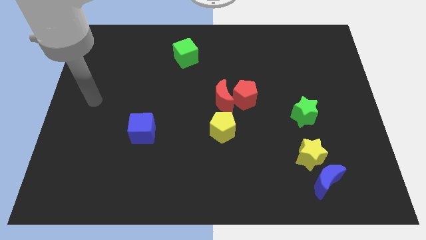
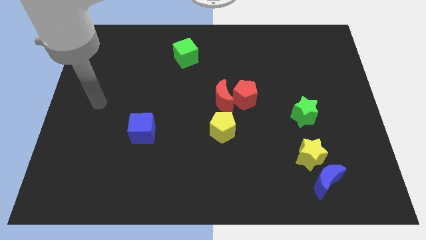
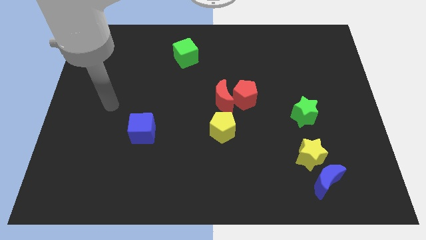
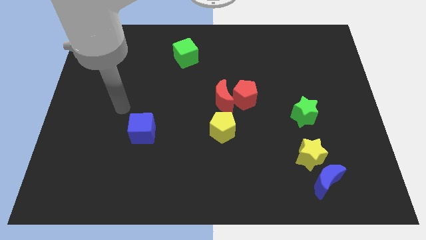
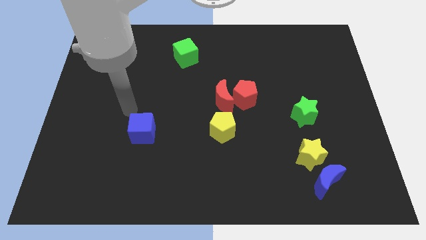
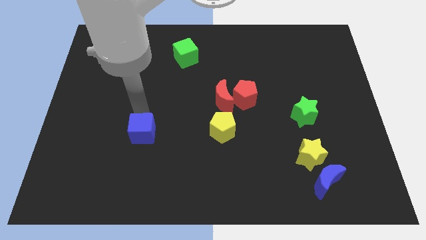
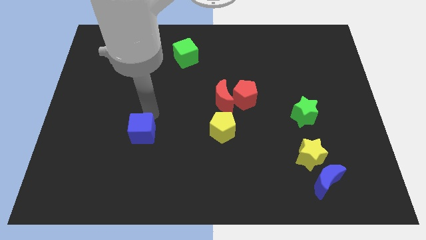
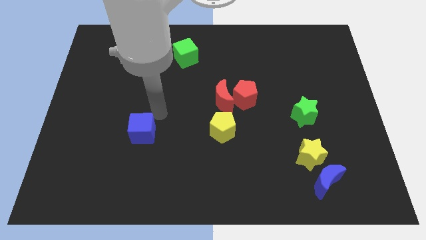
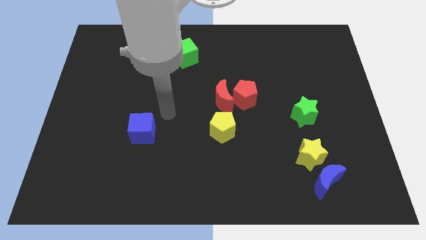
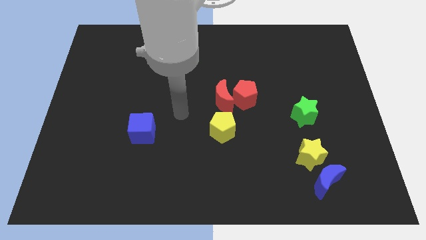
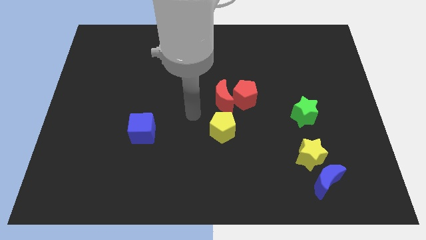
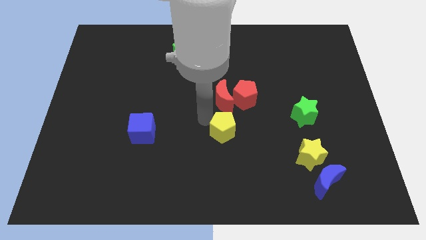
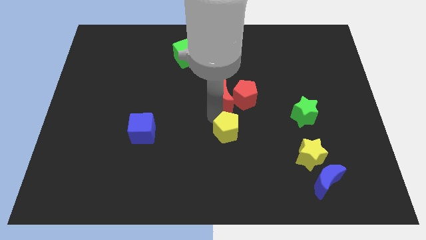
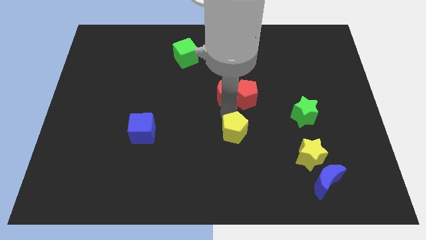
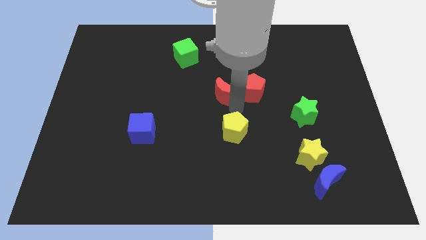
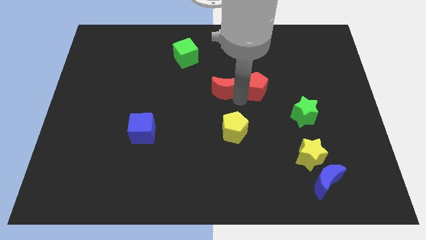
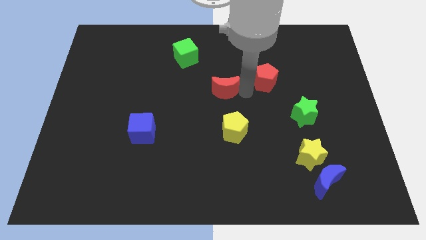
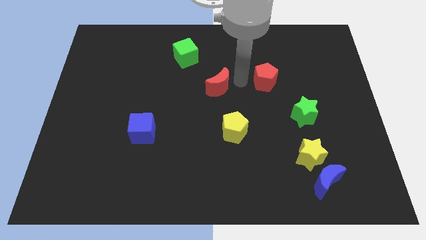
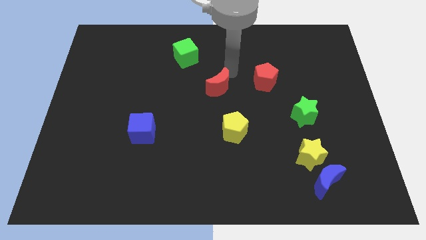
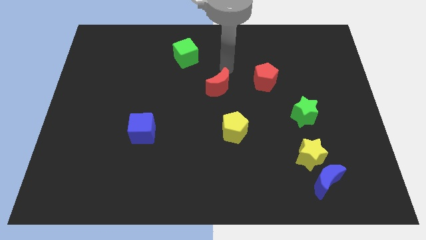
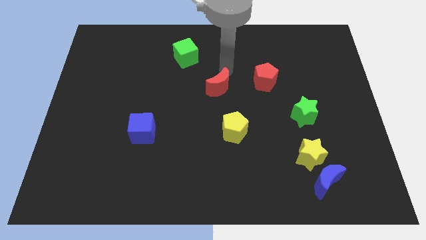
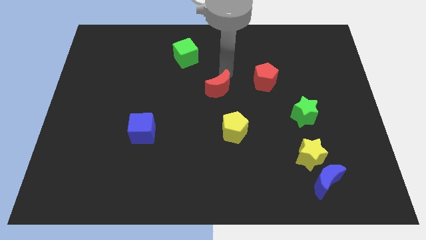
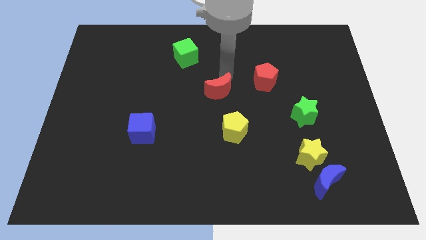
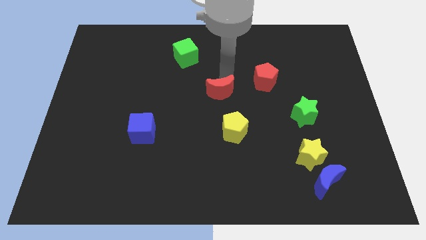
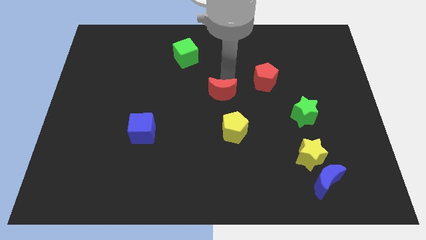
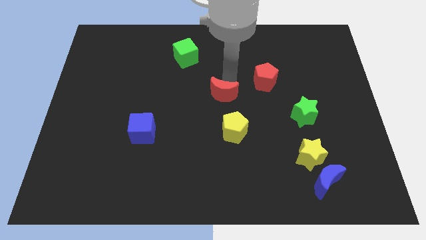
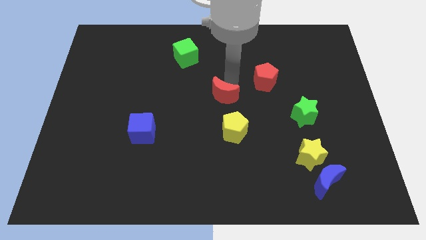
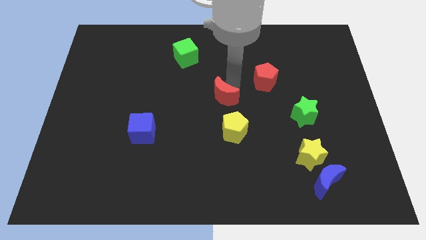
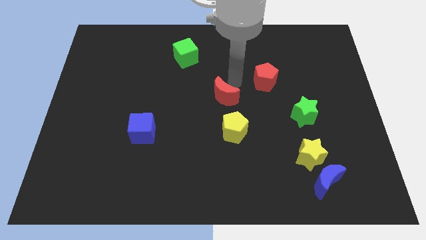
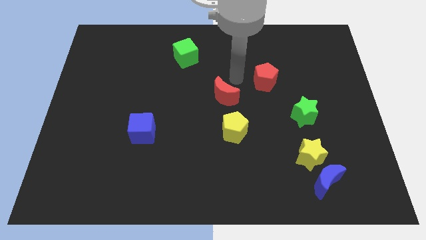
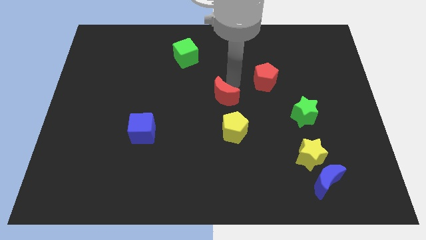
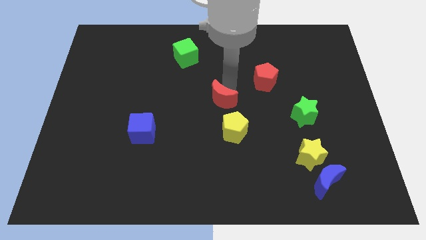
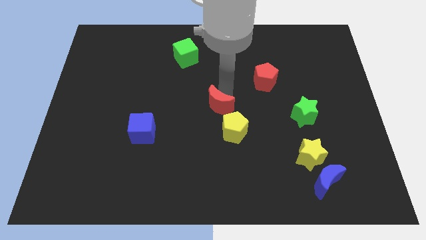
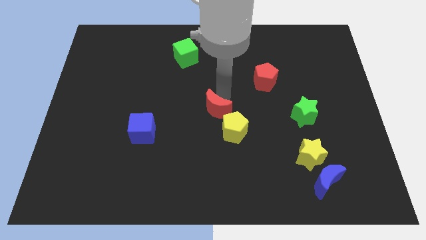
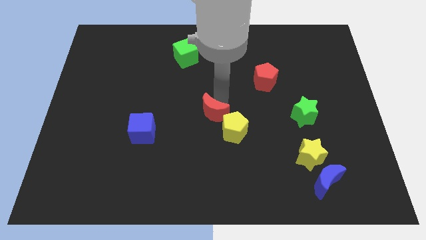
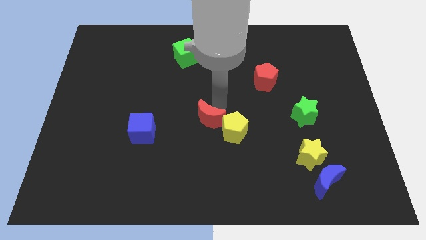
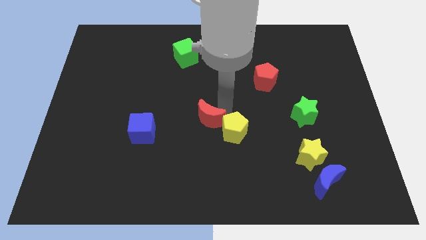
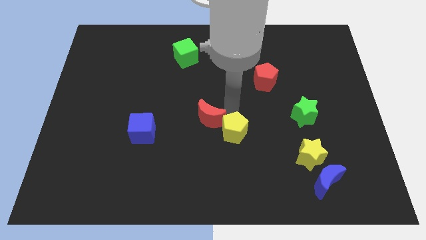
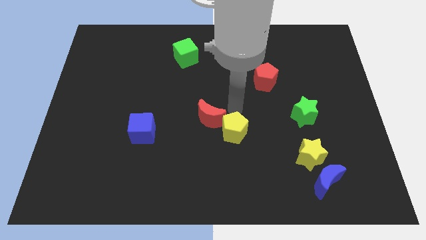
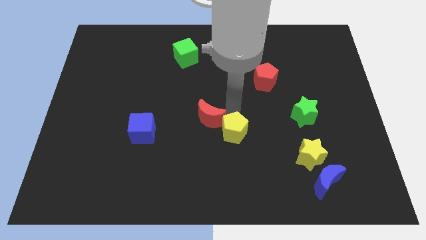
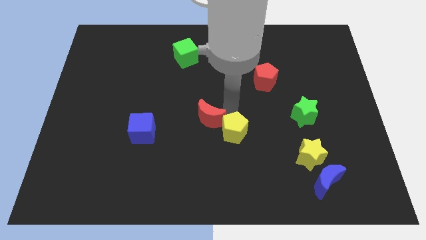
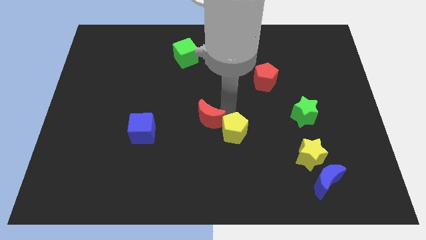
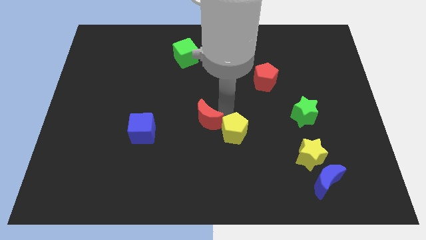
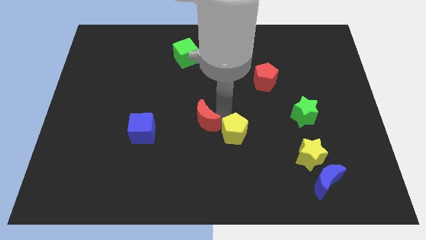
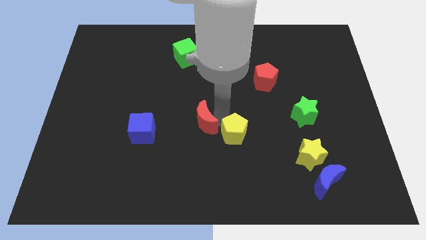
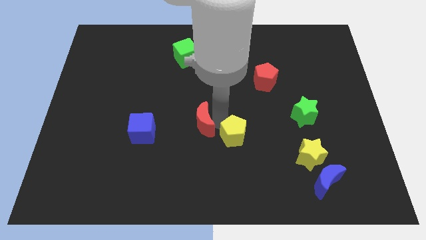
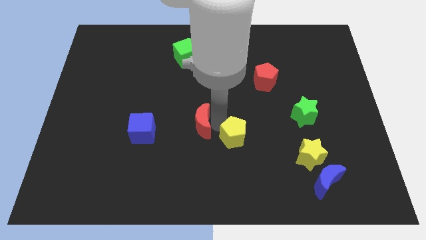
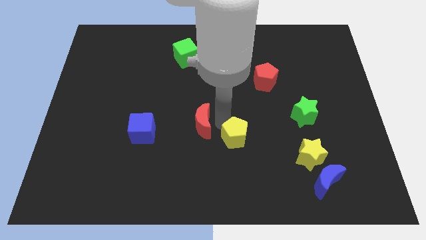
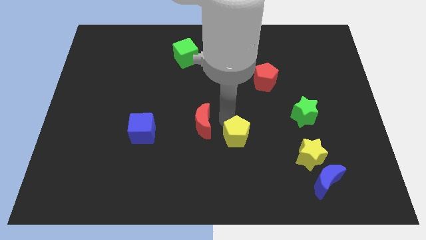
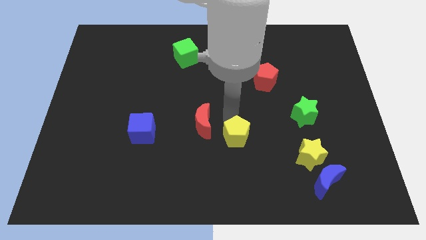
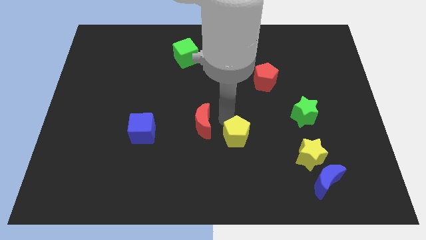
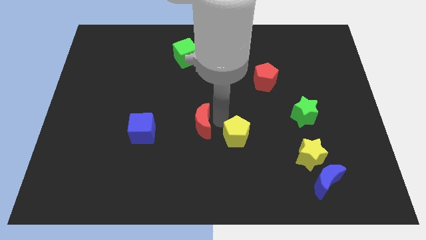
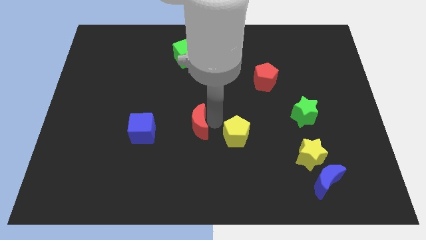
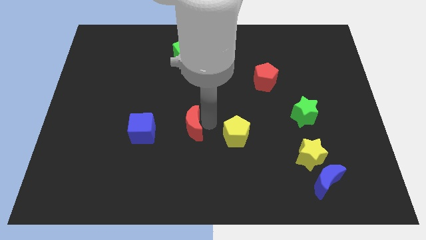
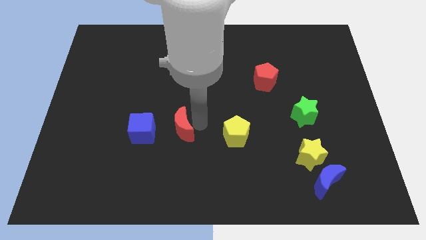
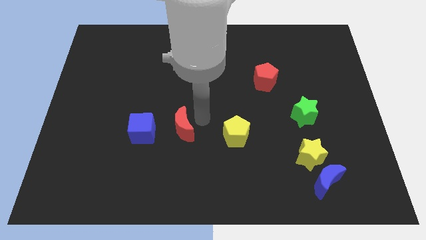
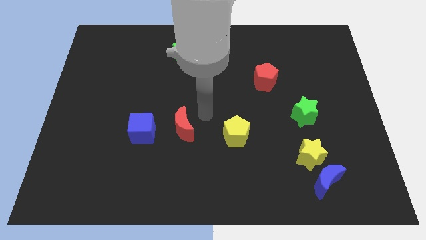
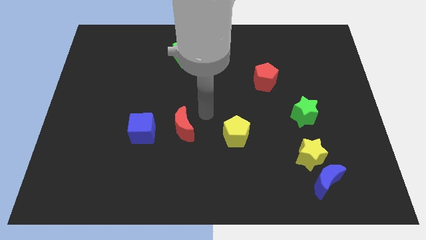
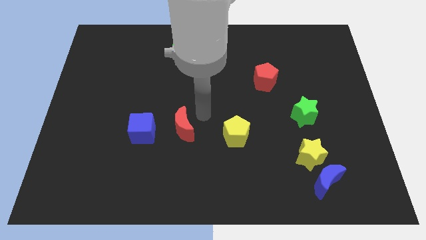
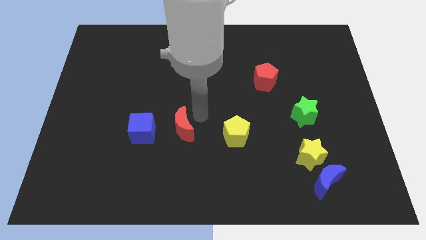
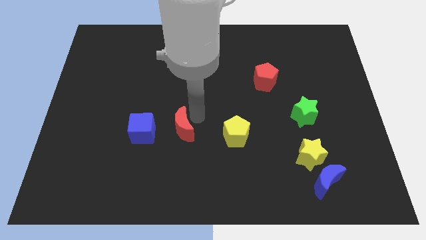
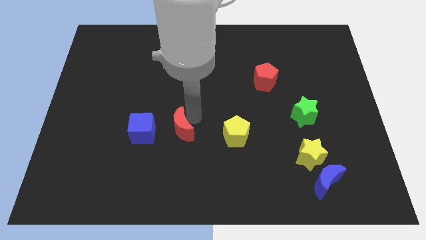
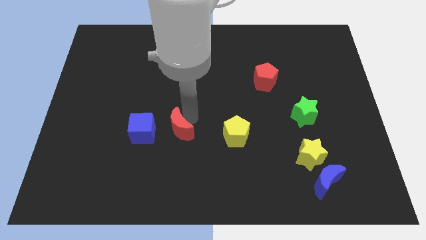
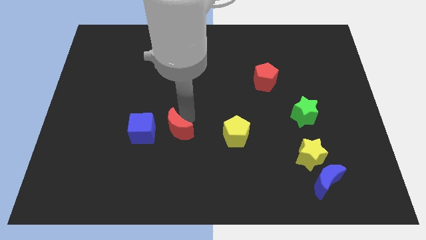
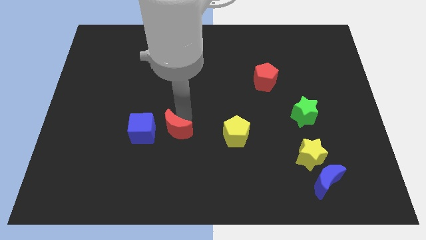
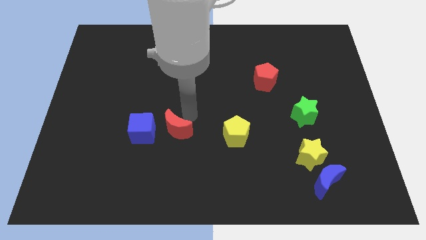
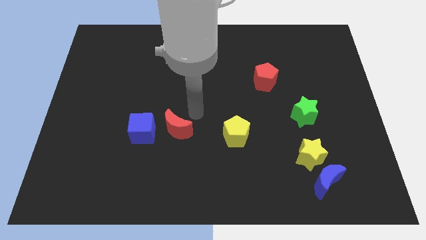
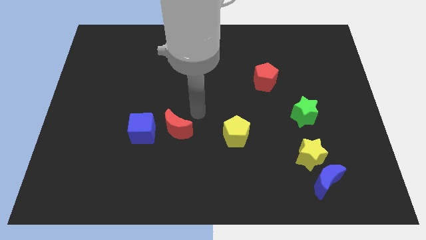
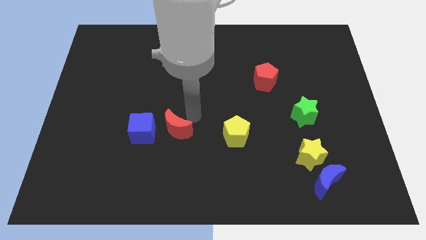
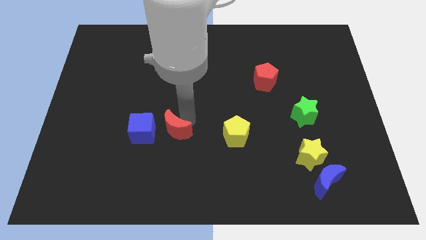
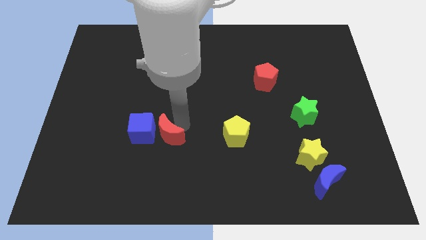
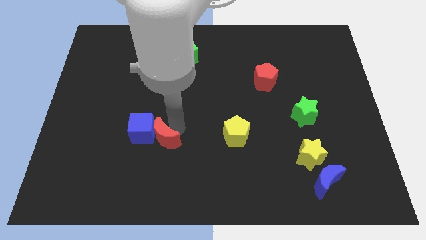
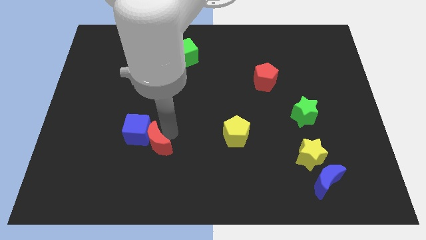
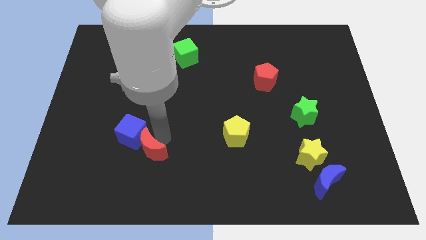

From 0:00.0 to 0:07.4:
move the red moon below the blue cube
